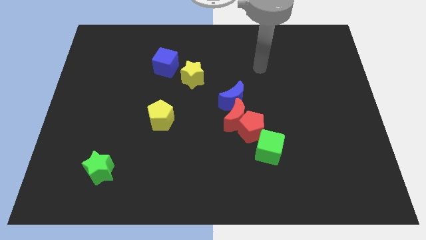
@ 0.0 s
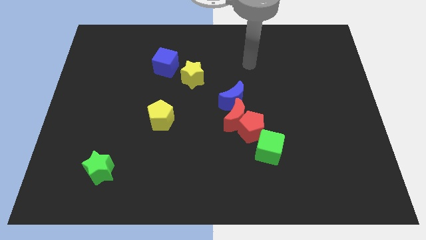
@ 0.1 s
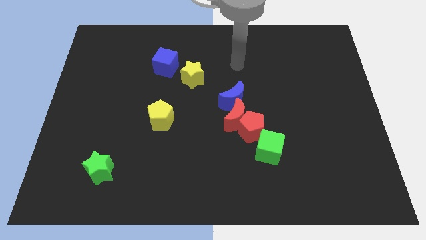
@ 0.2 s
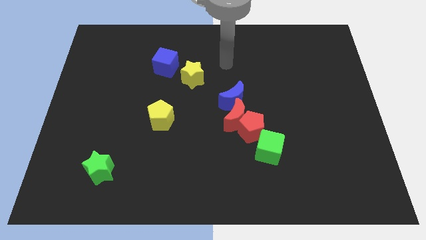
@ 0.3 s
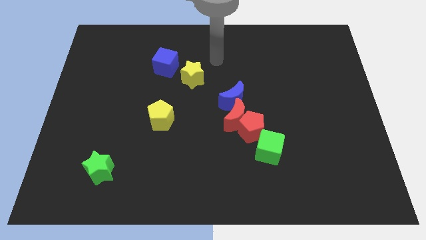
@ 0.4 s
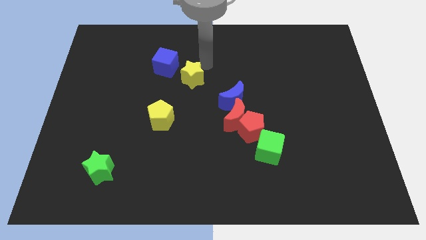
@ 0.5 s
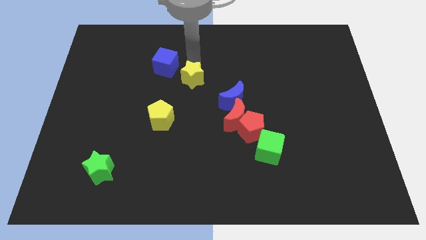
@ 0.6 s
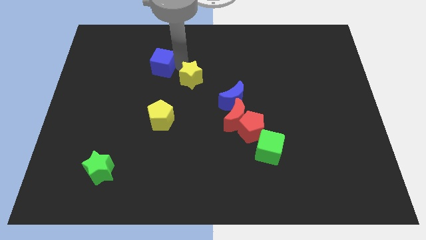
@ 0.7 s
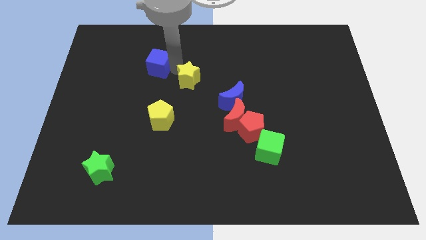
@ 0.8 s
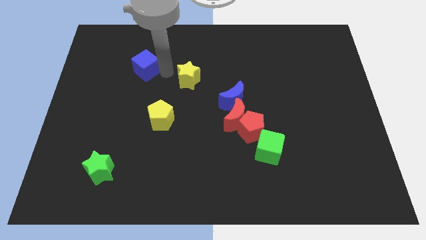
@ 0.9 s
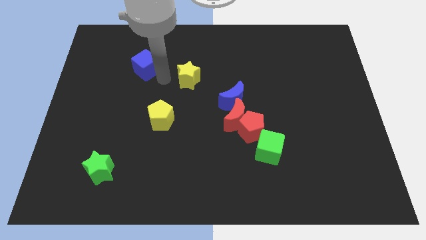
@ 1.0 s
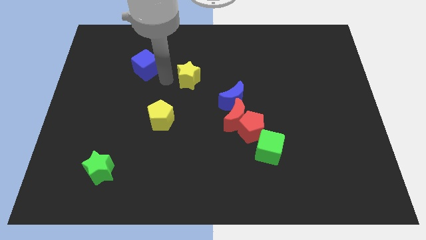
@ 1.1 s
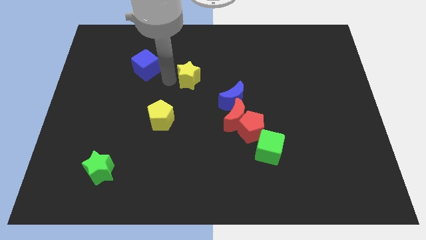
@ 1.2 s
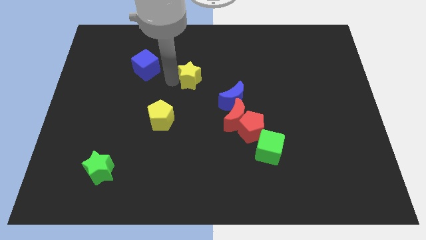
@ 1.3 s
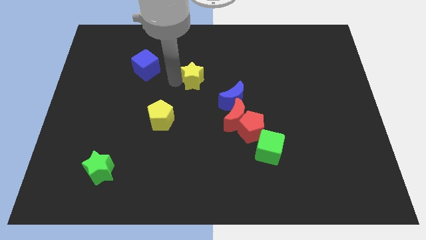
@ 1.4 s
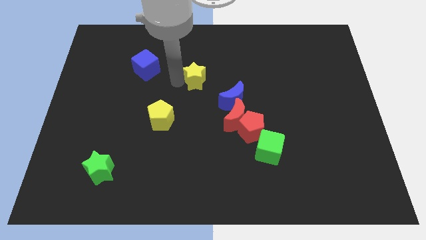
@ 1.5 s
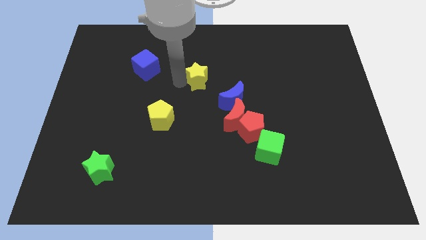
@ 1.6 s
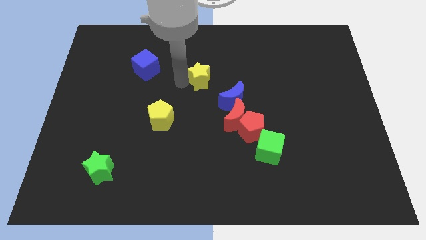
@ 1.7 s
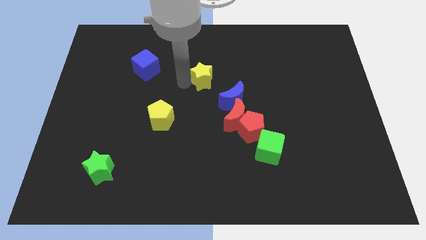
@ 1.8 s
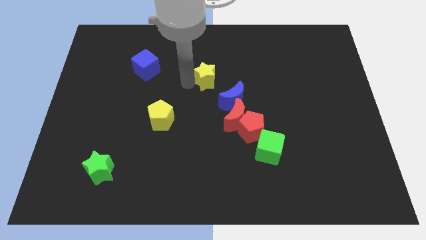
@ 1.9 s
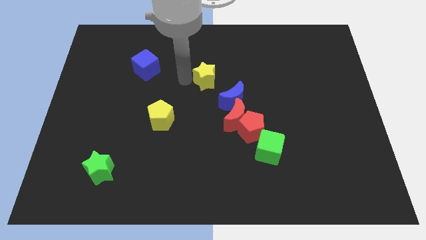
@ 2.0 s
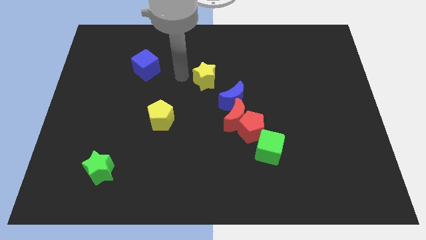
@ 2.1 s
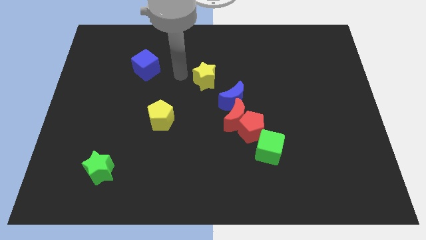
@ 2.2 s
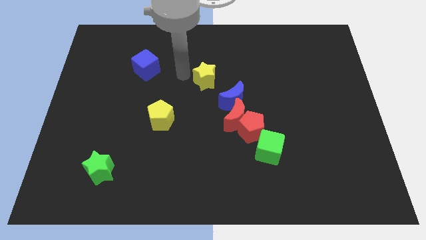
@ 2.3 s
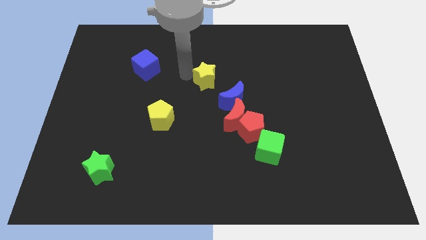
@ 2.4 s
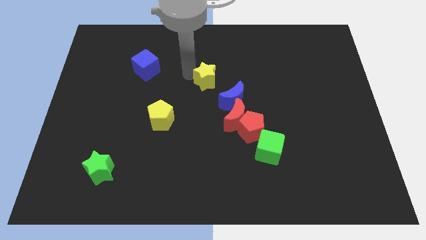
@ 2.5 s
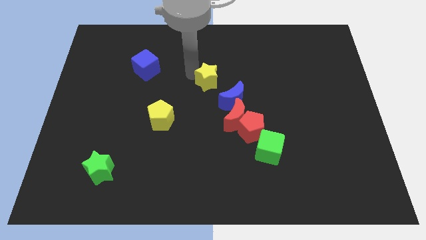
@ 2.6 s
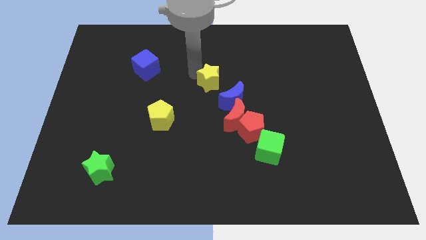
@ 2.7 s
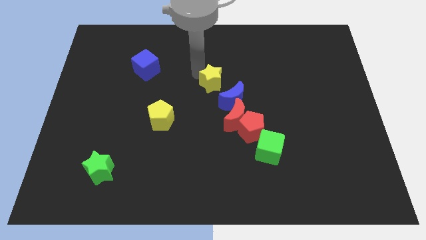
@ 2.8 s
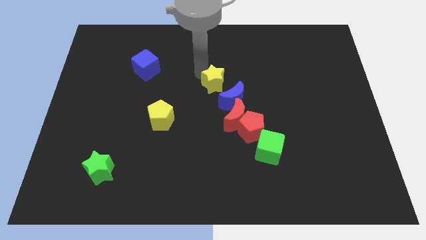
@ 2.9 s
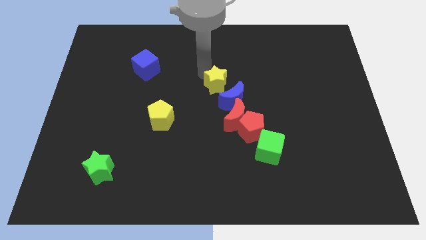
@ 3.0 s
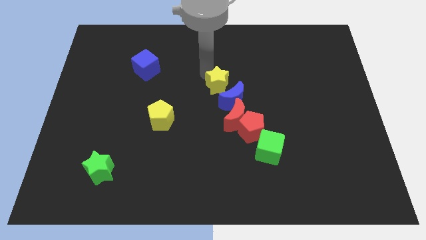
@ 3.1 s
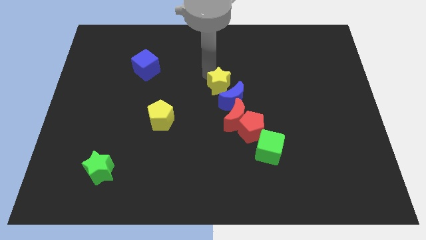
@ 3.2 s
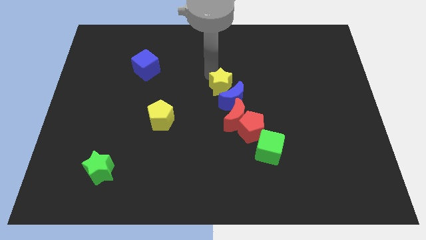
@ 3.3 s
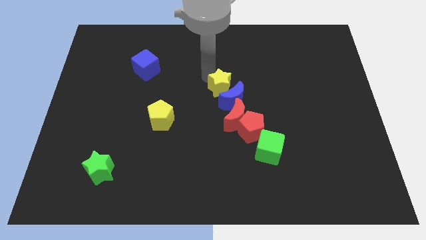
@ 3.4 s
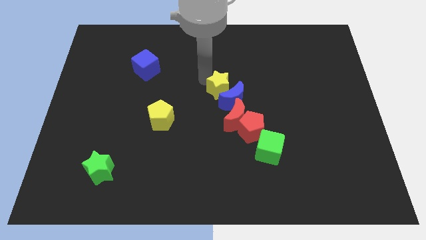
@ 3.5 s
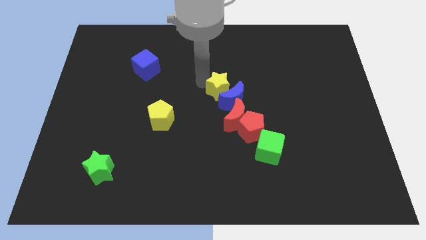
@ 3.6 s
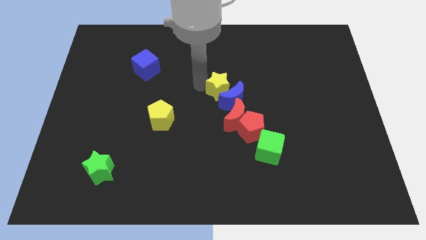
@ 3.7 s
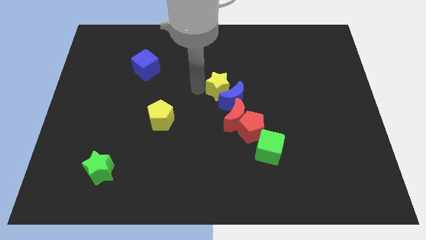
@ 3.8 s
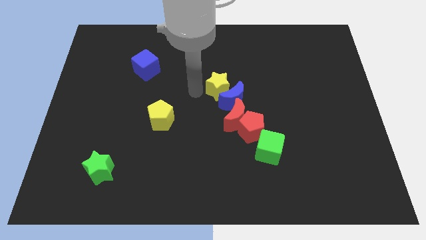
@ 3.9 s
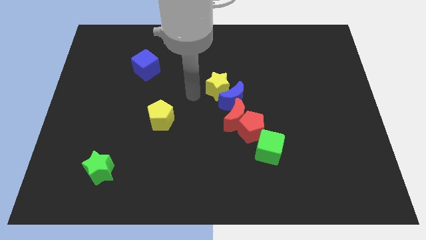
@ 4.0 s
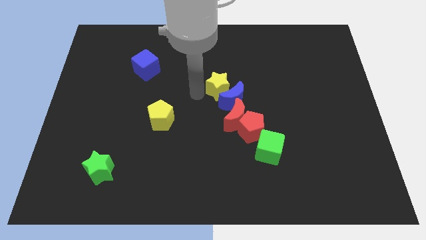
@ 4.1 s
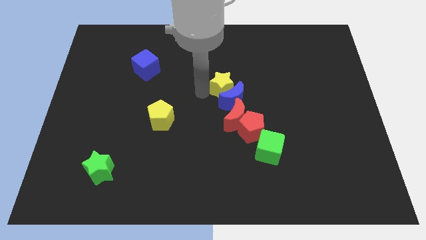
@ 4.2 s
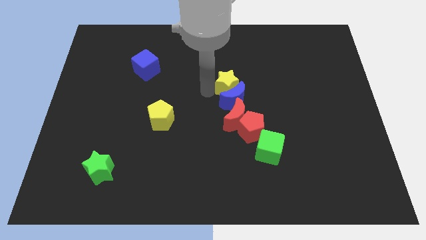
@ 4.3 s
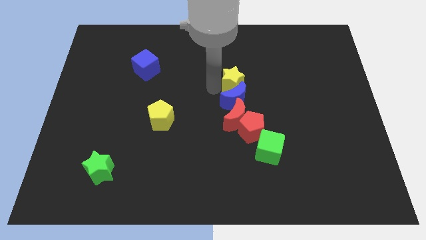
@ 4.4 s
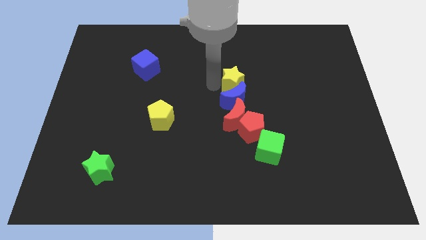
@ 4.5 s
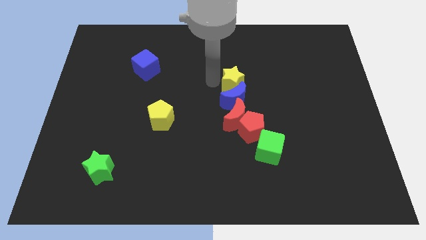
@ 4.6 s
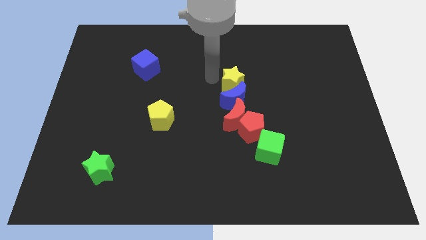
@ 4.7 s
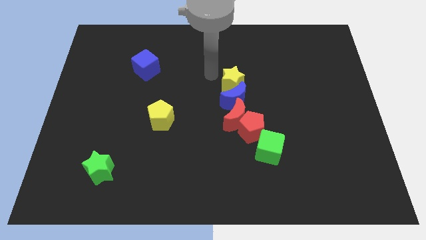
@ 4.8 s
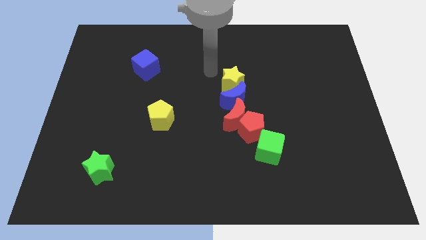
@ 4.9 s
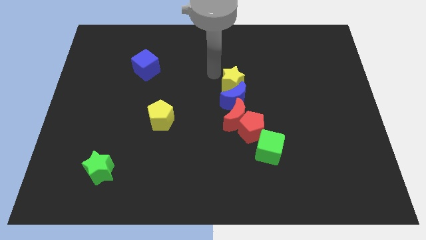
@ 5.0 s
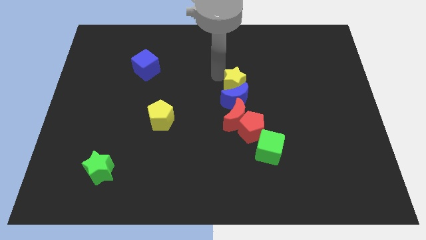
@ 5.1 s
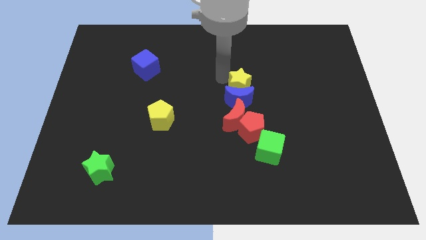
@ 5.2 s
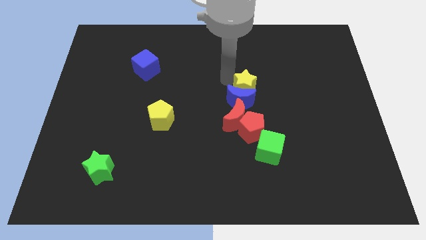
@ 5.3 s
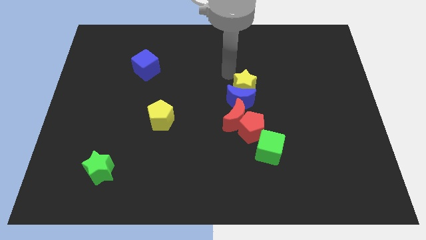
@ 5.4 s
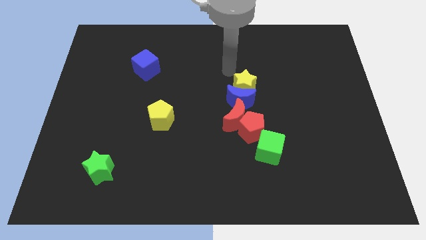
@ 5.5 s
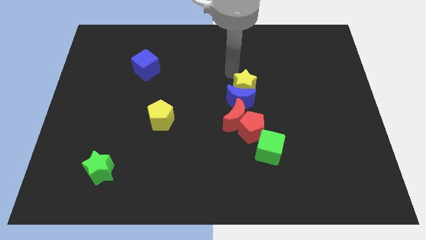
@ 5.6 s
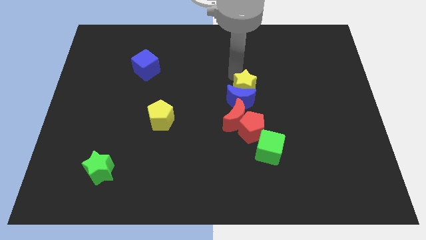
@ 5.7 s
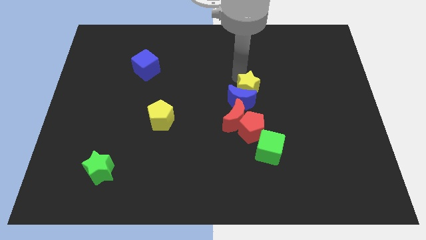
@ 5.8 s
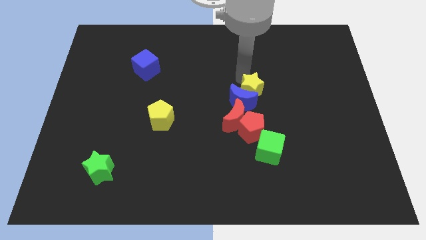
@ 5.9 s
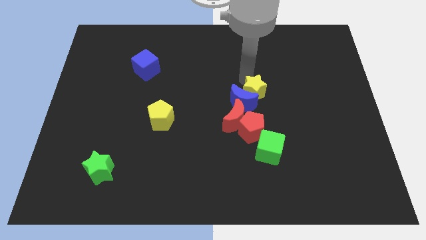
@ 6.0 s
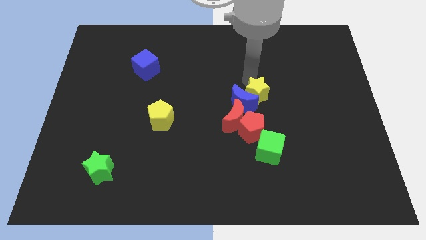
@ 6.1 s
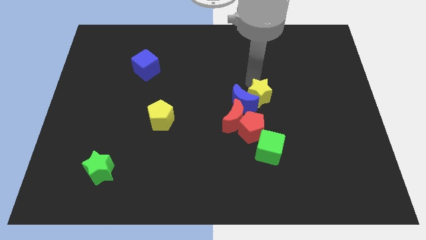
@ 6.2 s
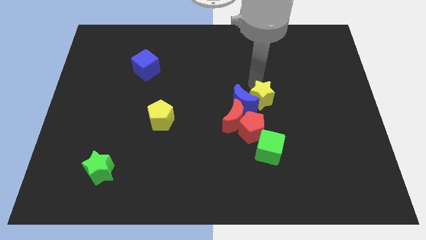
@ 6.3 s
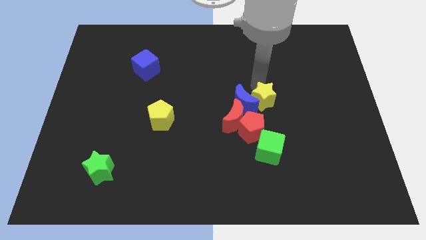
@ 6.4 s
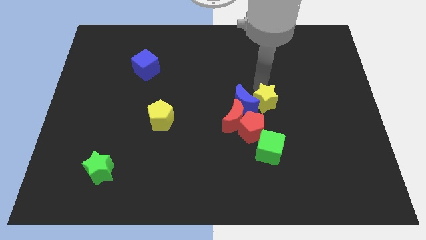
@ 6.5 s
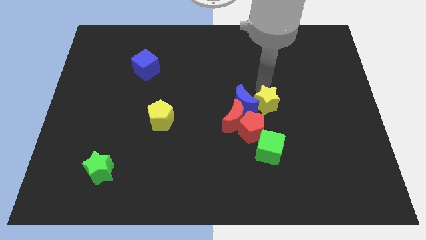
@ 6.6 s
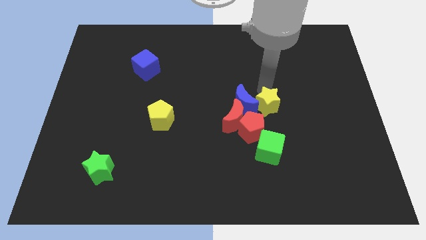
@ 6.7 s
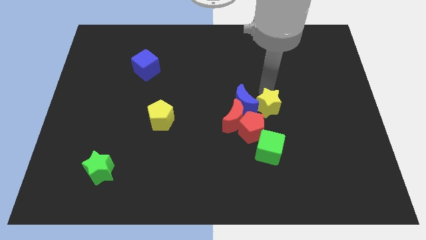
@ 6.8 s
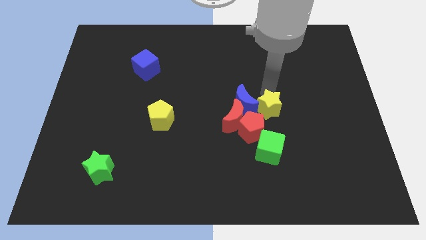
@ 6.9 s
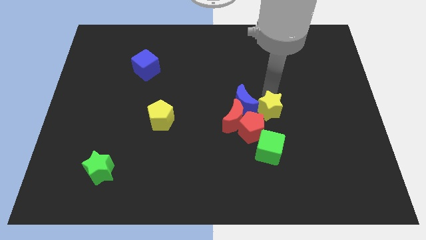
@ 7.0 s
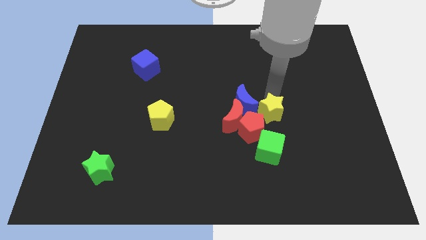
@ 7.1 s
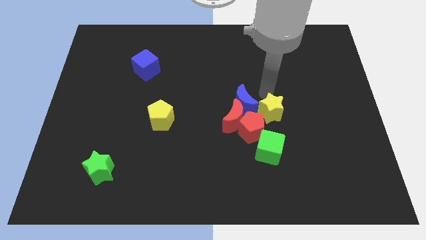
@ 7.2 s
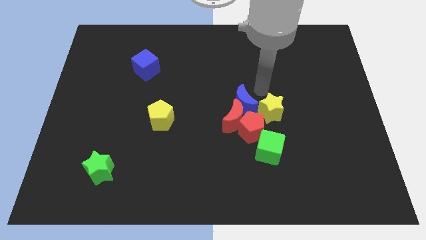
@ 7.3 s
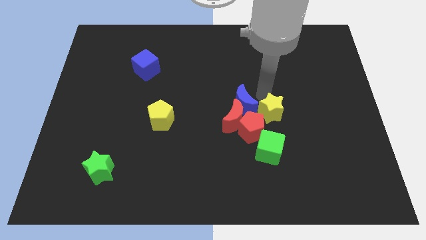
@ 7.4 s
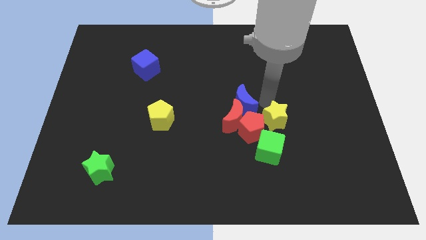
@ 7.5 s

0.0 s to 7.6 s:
move the yellow star downwards and then to the right
